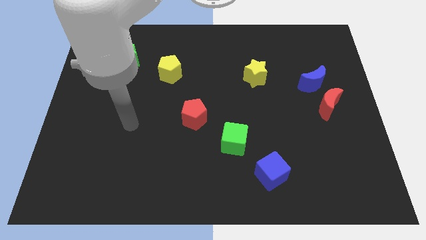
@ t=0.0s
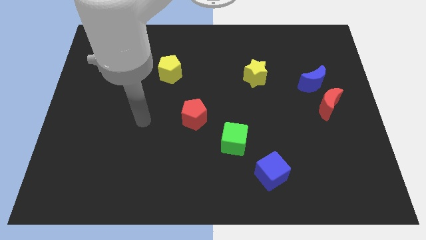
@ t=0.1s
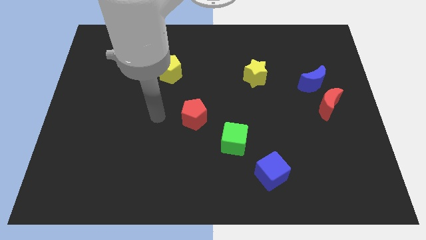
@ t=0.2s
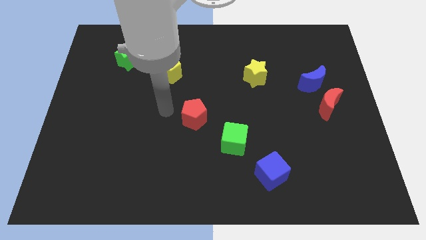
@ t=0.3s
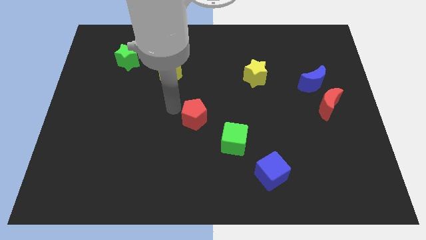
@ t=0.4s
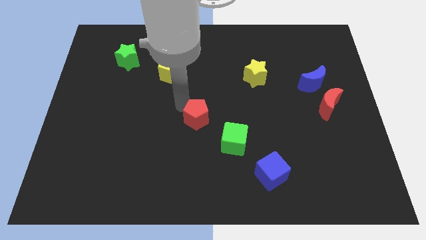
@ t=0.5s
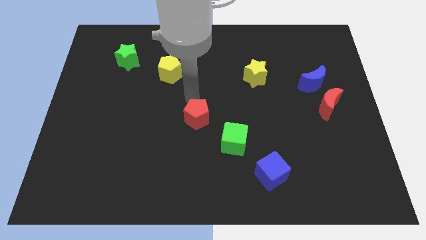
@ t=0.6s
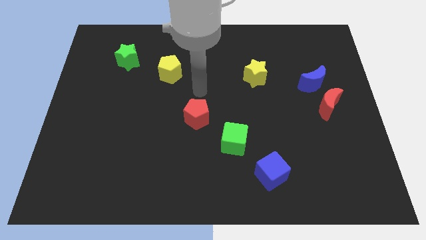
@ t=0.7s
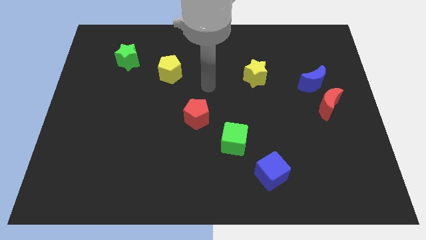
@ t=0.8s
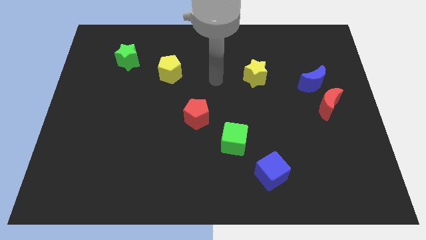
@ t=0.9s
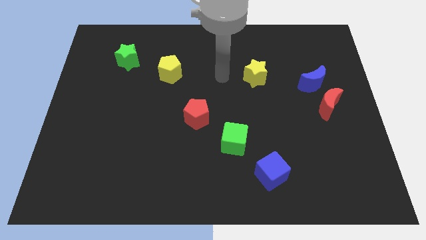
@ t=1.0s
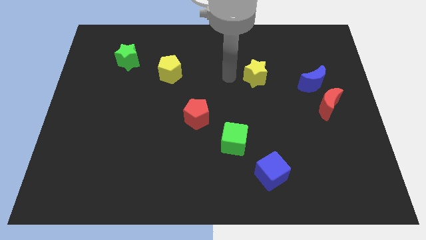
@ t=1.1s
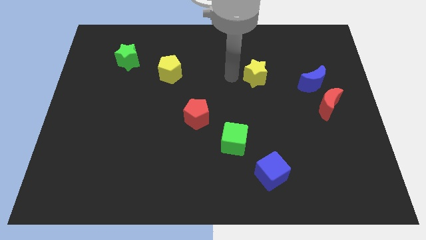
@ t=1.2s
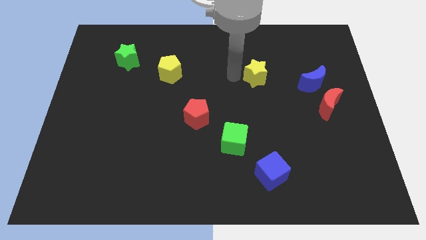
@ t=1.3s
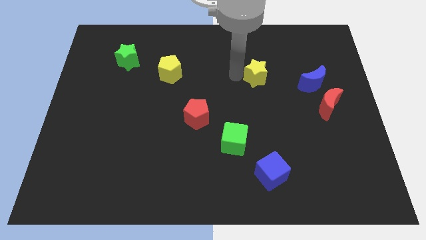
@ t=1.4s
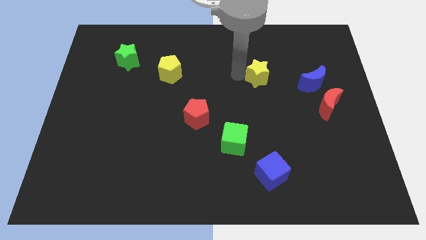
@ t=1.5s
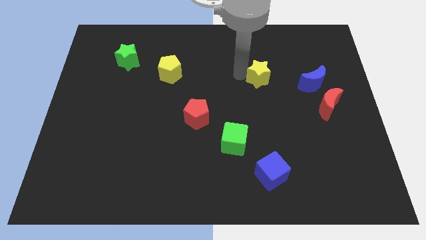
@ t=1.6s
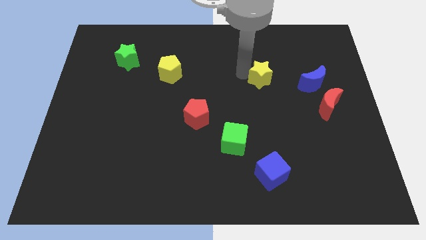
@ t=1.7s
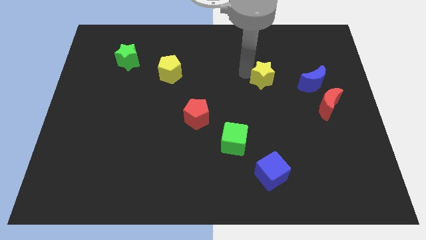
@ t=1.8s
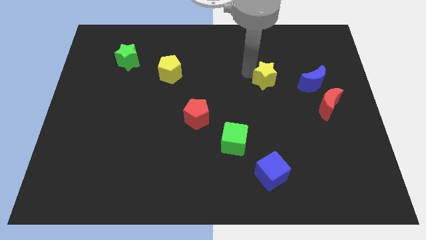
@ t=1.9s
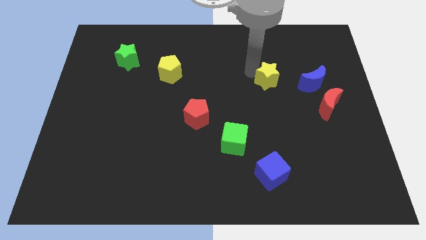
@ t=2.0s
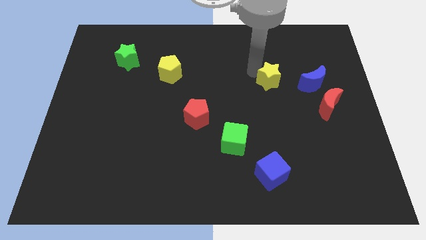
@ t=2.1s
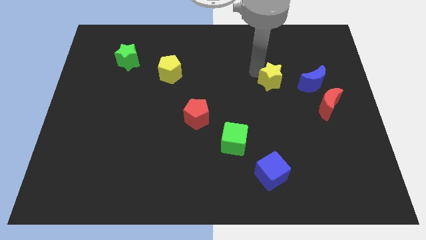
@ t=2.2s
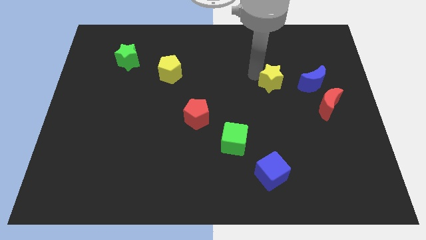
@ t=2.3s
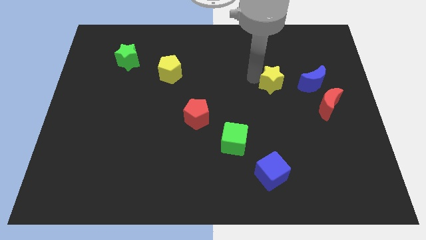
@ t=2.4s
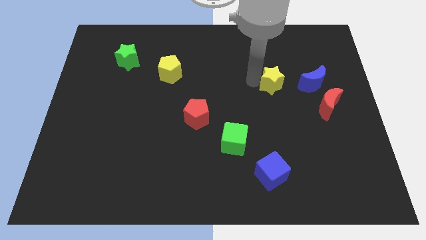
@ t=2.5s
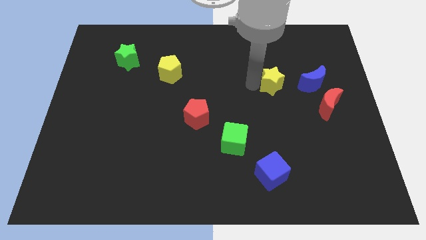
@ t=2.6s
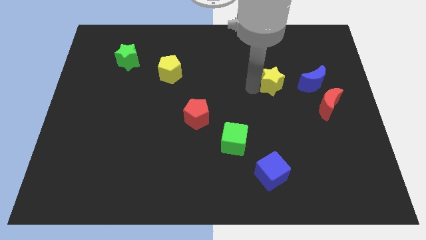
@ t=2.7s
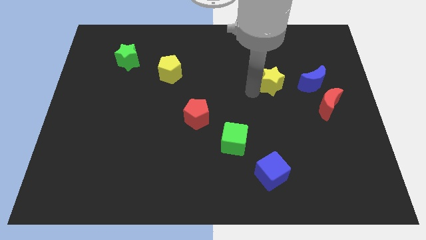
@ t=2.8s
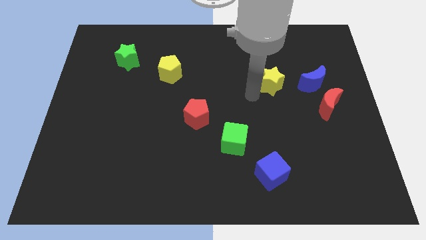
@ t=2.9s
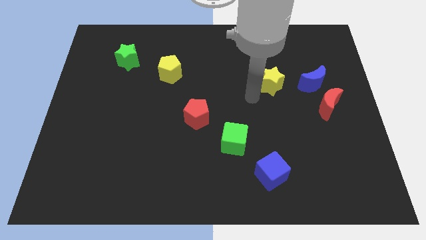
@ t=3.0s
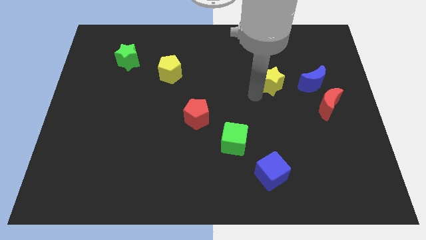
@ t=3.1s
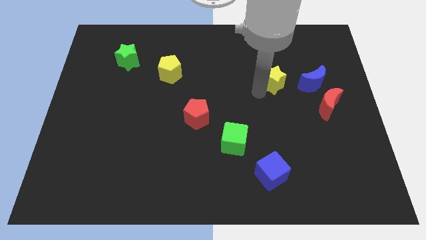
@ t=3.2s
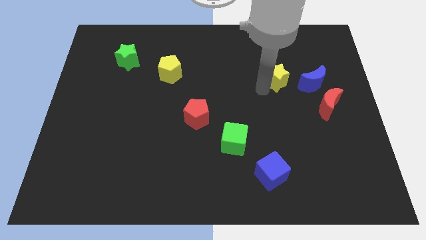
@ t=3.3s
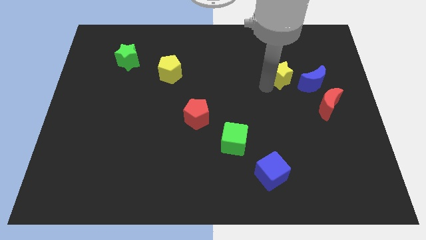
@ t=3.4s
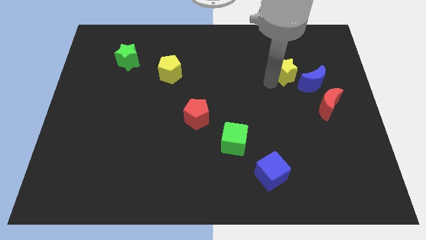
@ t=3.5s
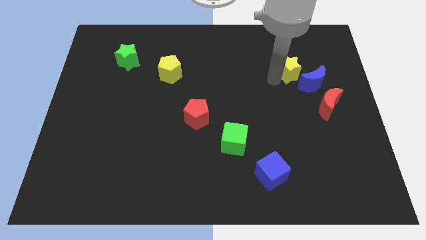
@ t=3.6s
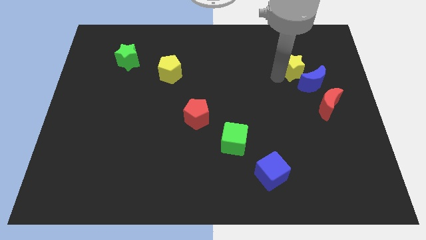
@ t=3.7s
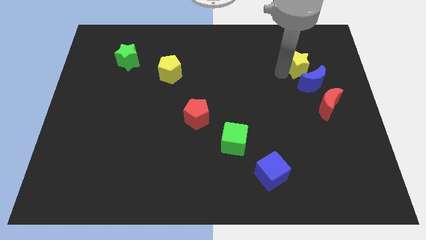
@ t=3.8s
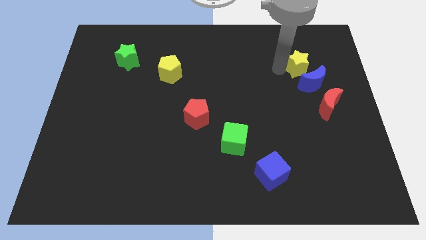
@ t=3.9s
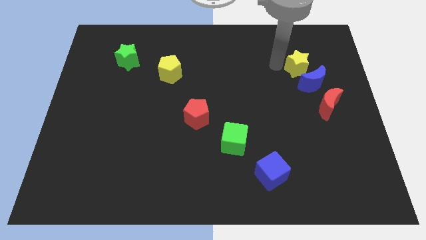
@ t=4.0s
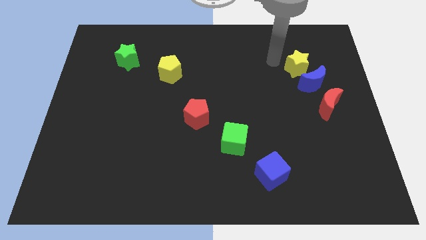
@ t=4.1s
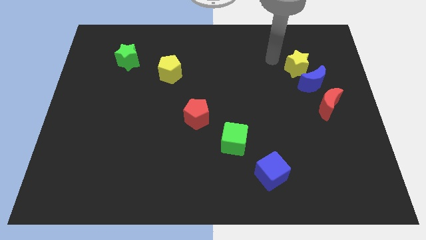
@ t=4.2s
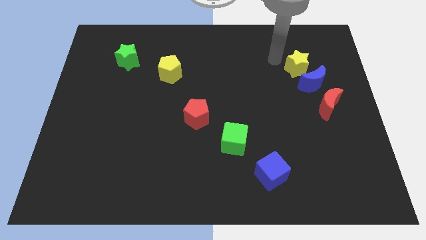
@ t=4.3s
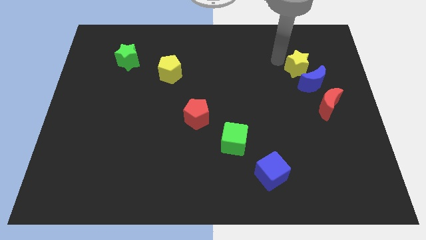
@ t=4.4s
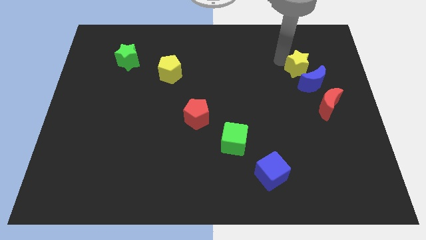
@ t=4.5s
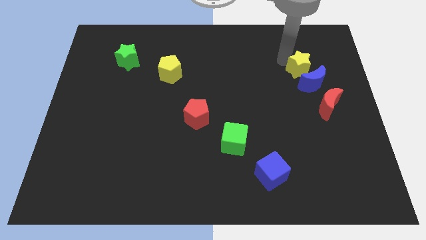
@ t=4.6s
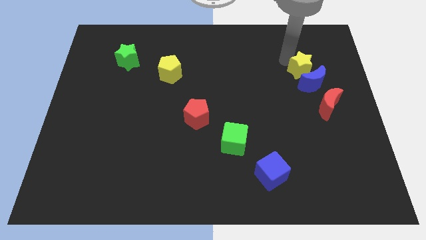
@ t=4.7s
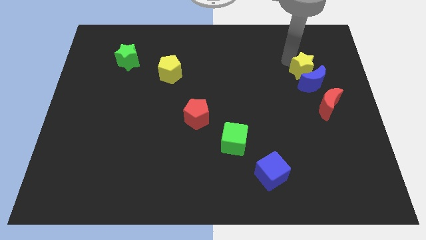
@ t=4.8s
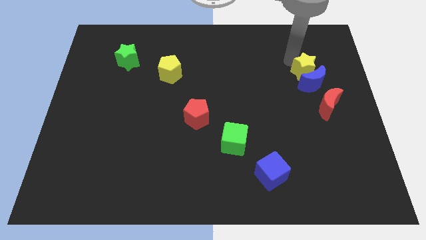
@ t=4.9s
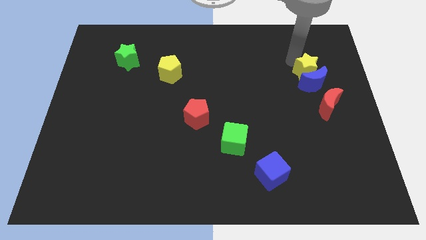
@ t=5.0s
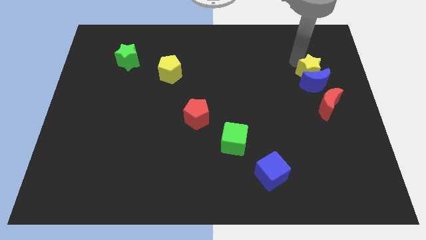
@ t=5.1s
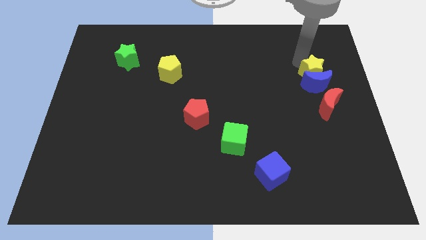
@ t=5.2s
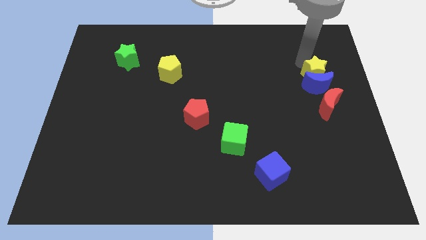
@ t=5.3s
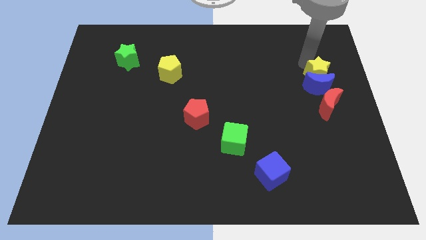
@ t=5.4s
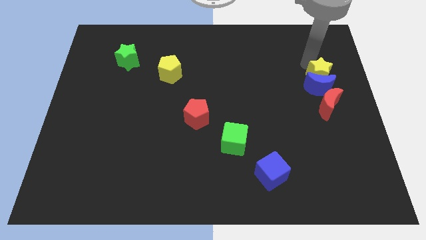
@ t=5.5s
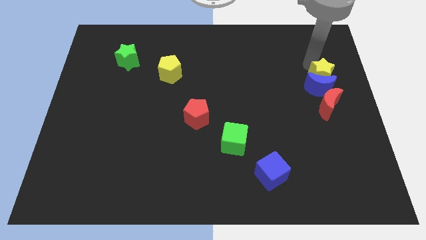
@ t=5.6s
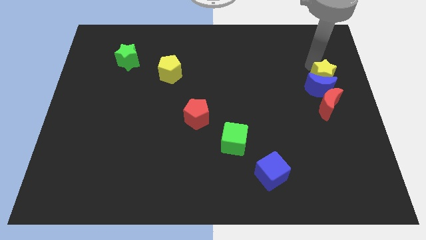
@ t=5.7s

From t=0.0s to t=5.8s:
move the yellow star to the center right
